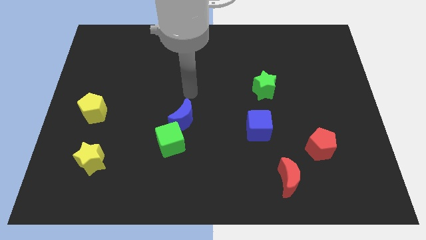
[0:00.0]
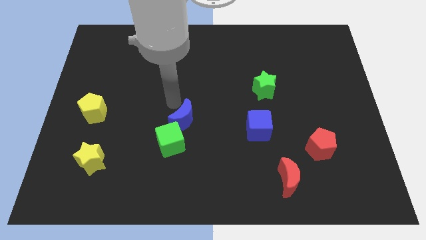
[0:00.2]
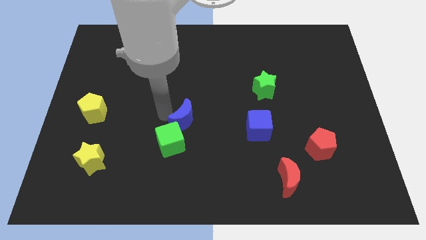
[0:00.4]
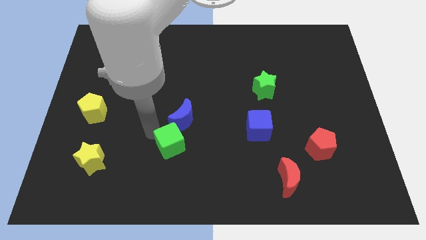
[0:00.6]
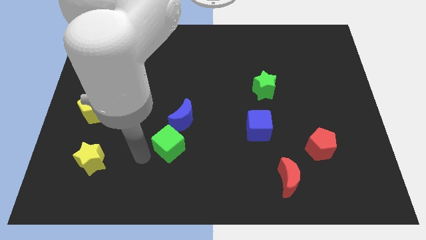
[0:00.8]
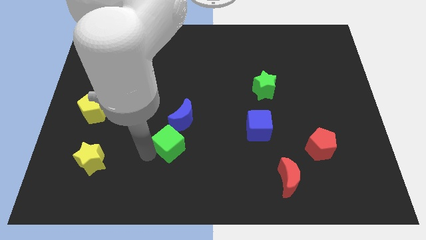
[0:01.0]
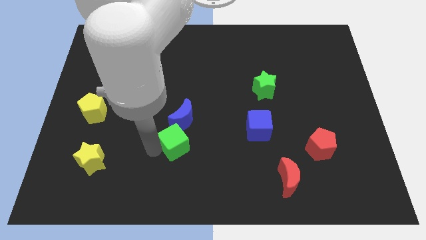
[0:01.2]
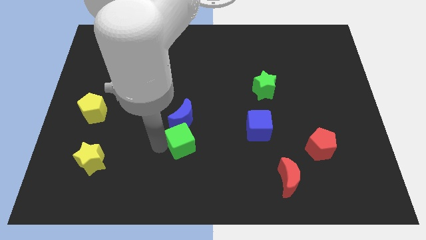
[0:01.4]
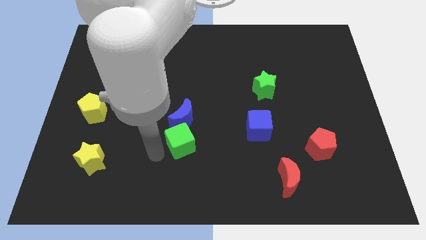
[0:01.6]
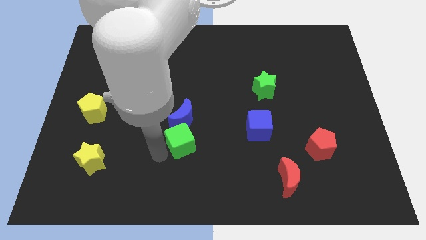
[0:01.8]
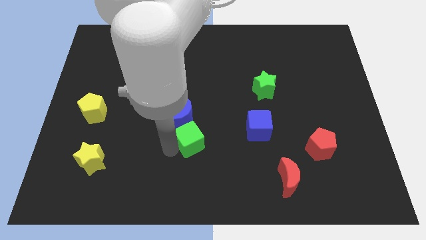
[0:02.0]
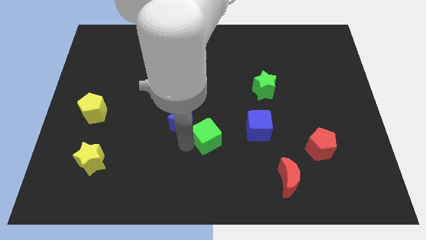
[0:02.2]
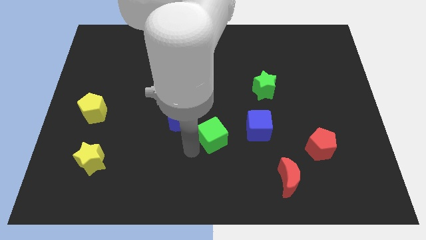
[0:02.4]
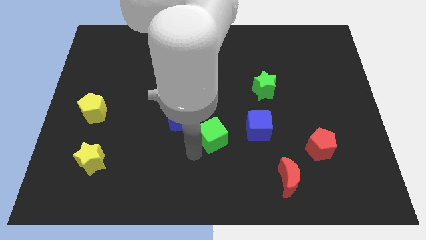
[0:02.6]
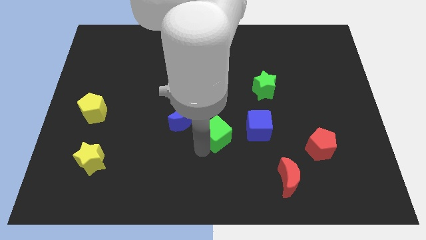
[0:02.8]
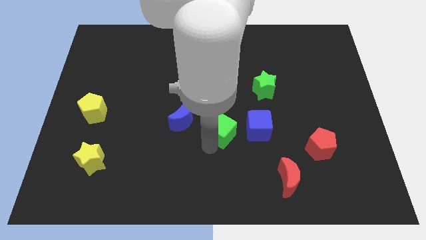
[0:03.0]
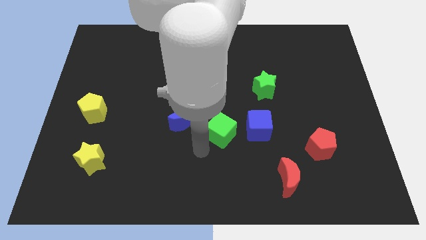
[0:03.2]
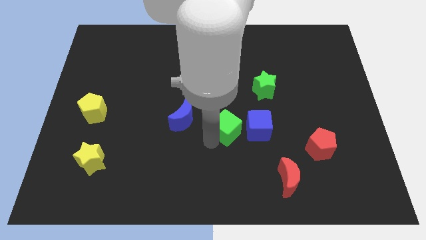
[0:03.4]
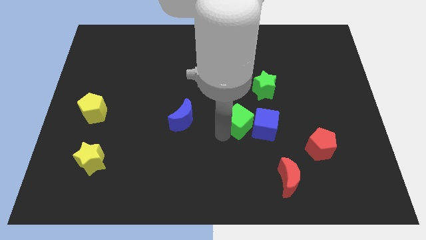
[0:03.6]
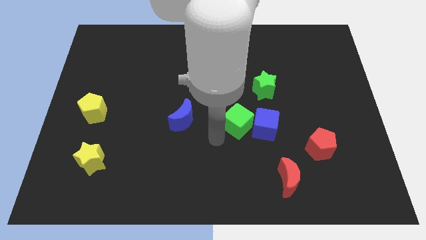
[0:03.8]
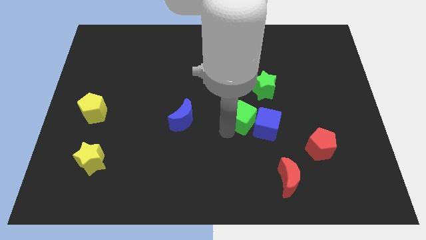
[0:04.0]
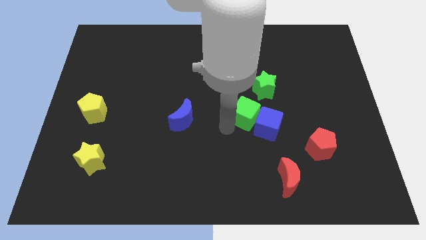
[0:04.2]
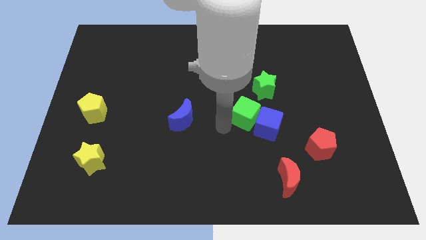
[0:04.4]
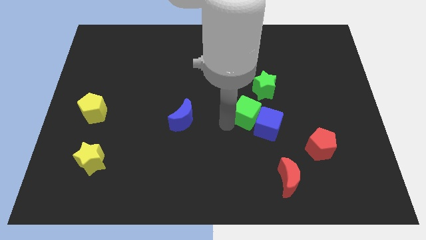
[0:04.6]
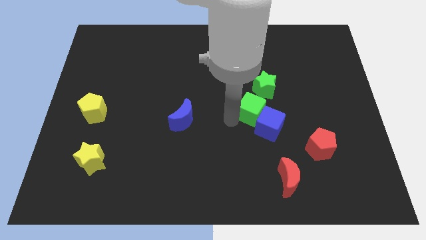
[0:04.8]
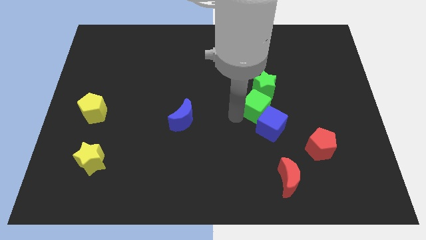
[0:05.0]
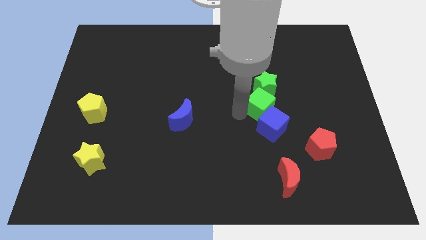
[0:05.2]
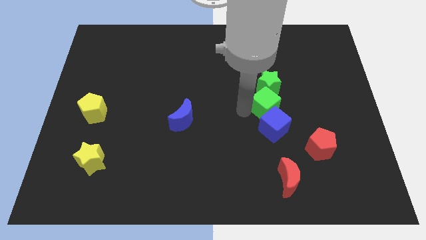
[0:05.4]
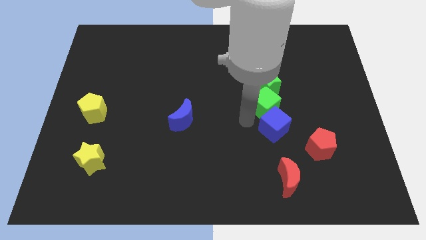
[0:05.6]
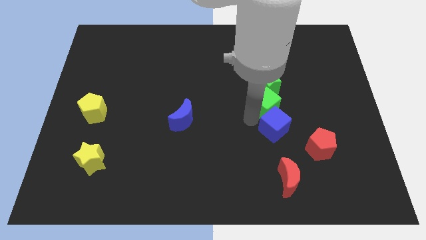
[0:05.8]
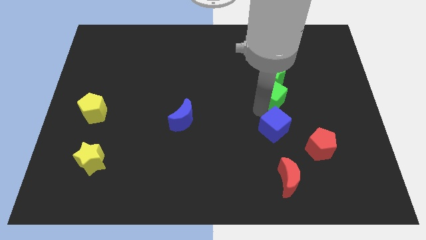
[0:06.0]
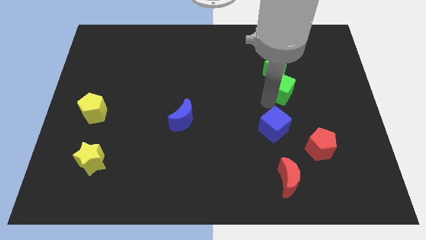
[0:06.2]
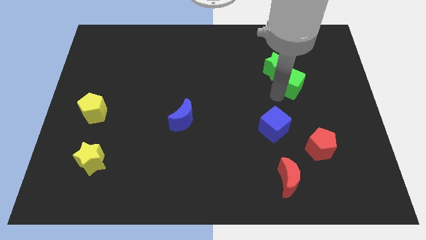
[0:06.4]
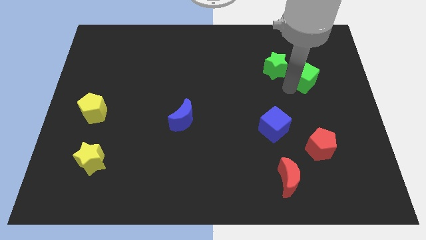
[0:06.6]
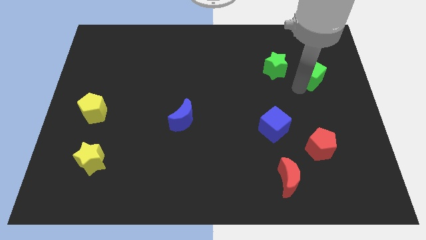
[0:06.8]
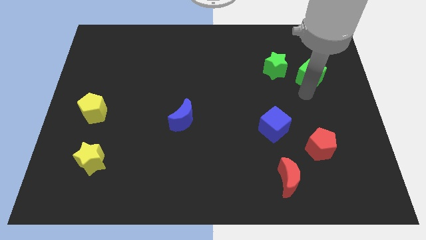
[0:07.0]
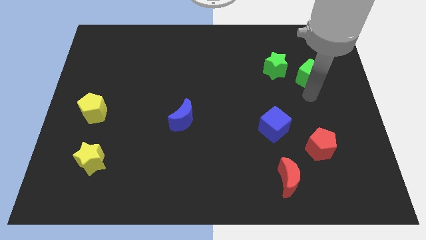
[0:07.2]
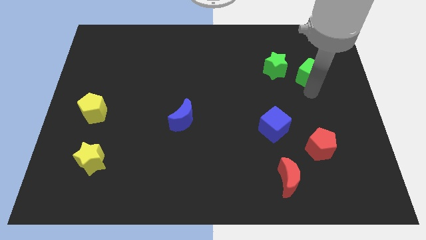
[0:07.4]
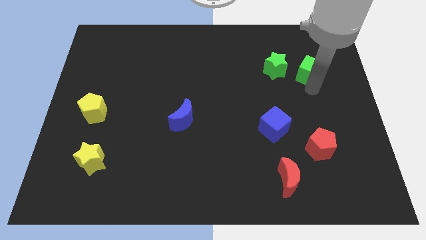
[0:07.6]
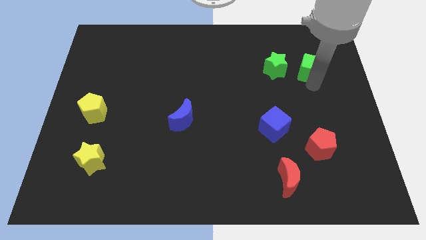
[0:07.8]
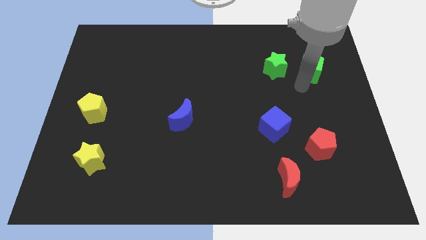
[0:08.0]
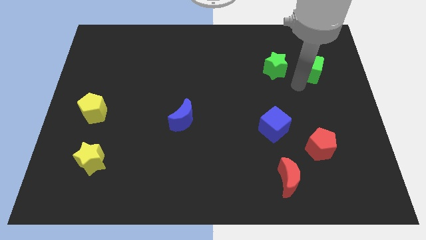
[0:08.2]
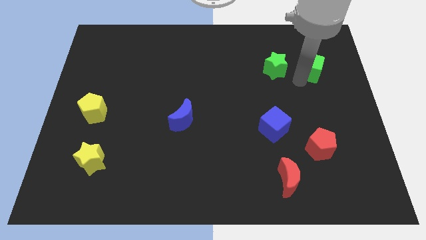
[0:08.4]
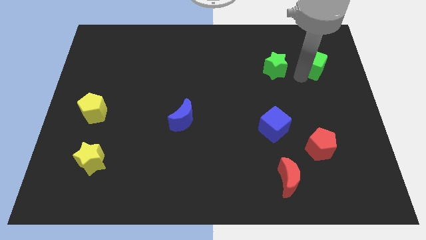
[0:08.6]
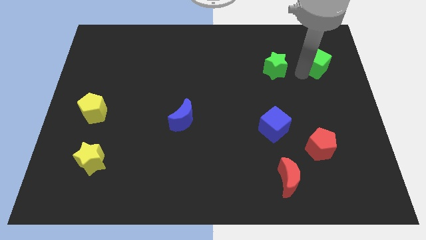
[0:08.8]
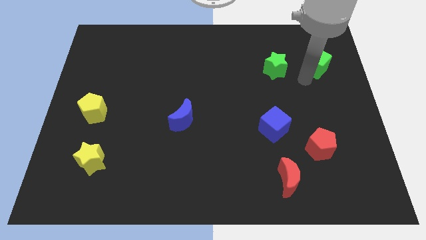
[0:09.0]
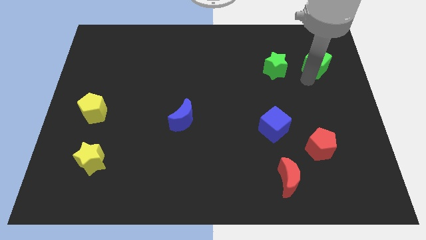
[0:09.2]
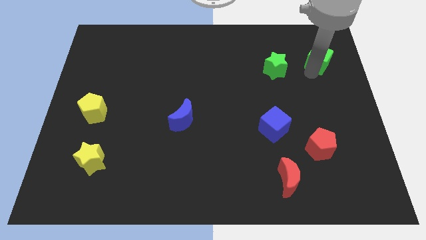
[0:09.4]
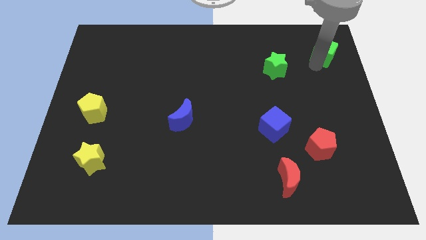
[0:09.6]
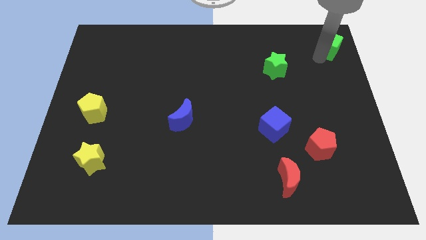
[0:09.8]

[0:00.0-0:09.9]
move the green cube to the top right corner
